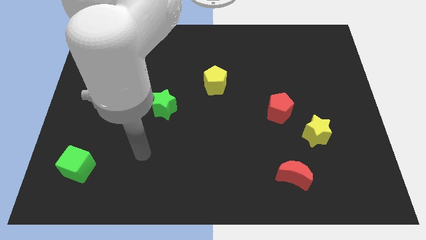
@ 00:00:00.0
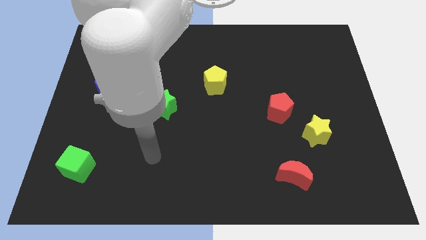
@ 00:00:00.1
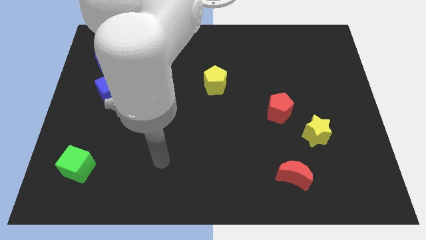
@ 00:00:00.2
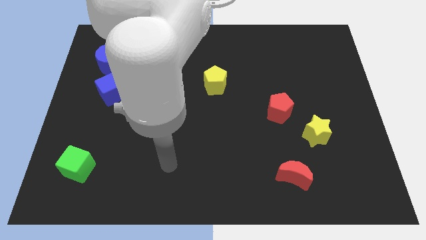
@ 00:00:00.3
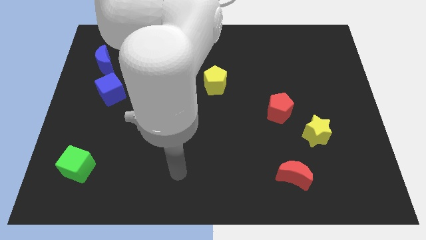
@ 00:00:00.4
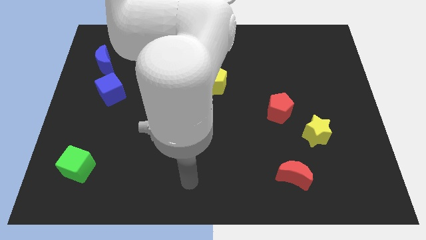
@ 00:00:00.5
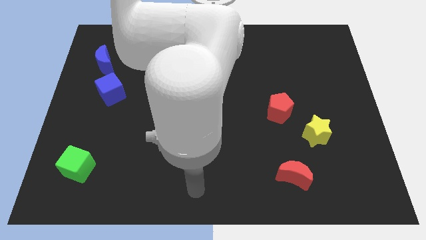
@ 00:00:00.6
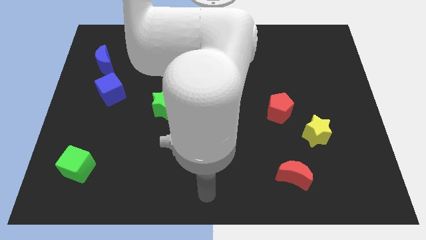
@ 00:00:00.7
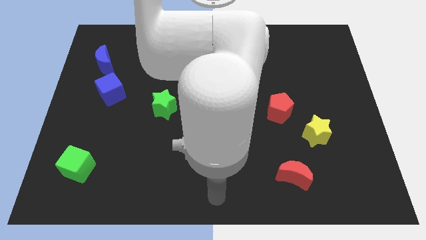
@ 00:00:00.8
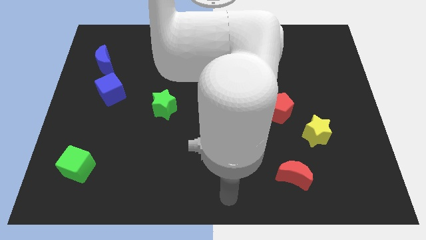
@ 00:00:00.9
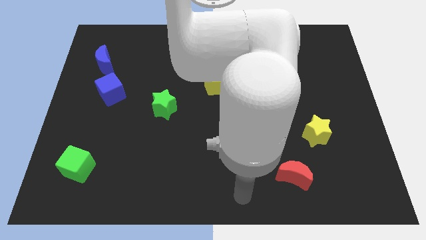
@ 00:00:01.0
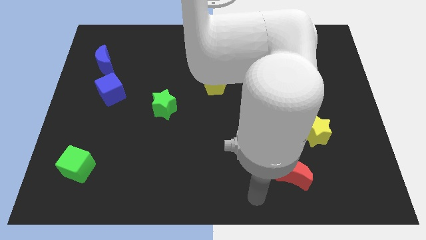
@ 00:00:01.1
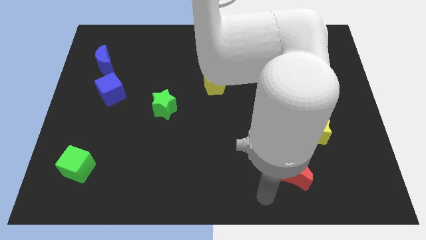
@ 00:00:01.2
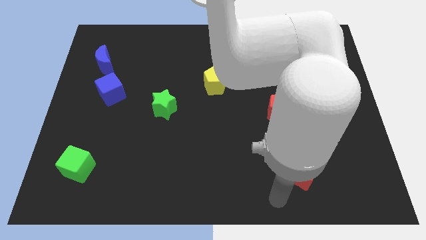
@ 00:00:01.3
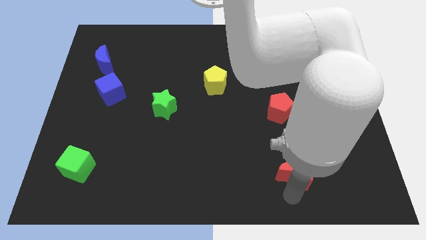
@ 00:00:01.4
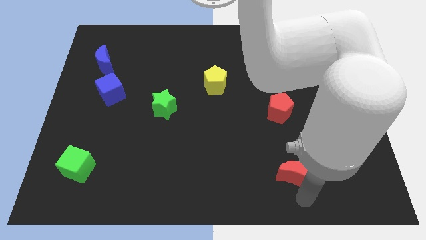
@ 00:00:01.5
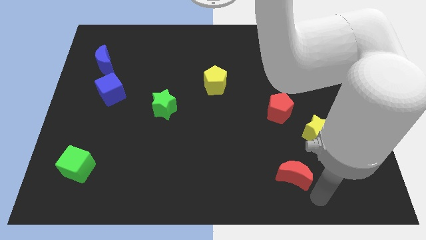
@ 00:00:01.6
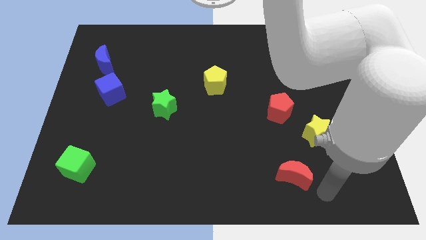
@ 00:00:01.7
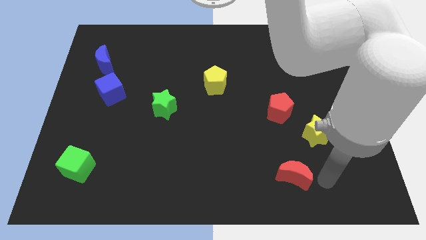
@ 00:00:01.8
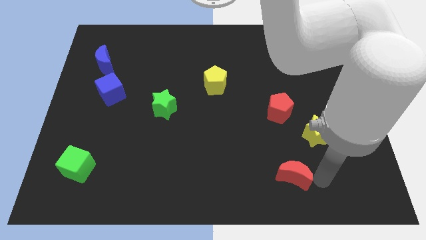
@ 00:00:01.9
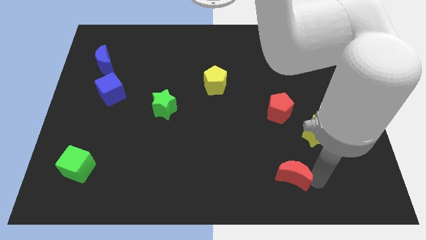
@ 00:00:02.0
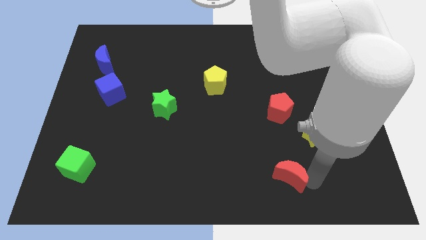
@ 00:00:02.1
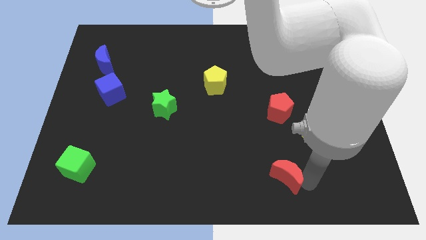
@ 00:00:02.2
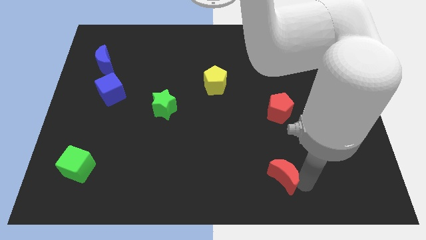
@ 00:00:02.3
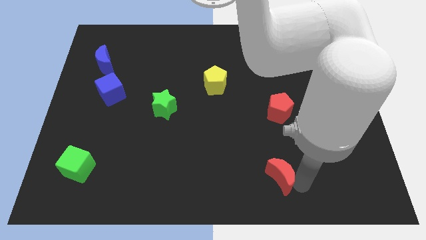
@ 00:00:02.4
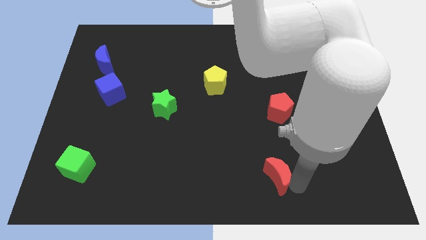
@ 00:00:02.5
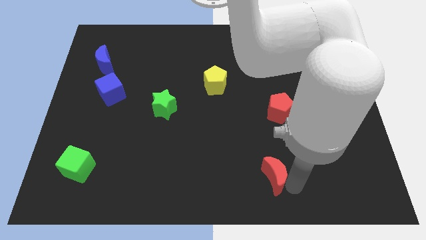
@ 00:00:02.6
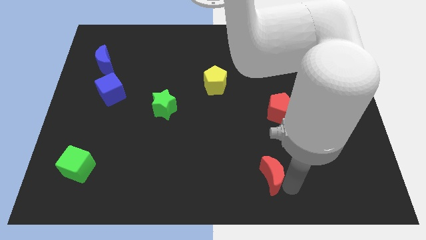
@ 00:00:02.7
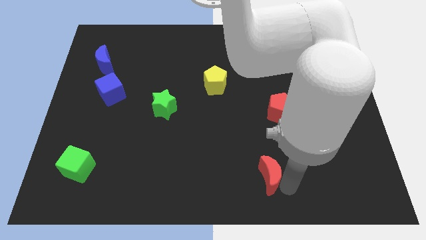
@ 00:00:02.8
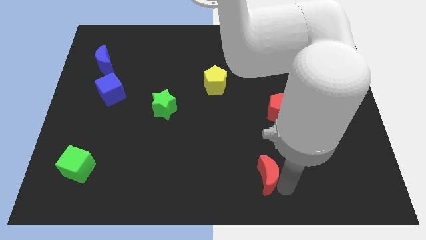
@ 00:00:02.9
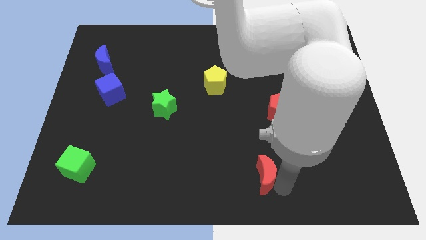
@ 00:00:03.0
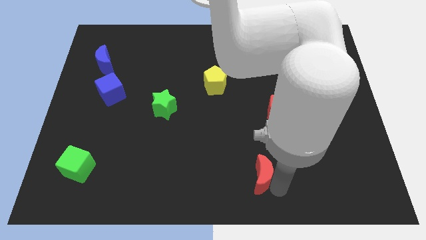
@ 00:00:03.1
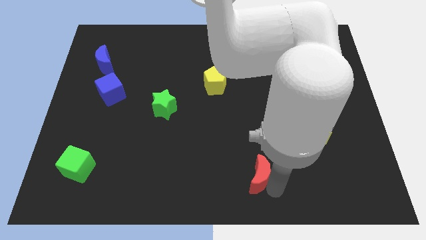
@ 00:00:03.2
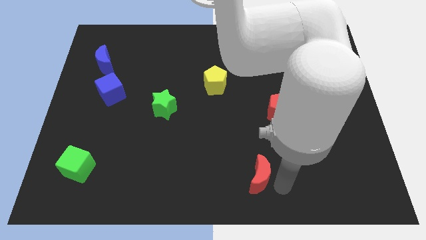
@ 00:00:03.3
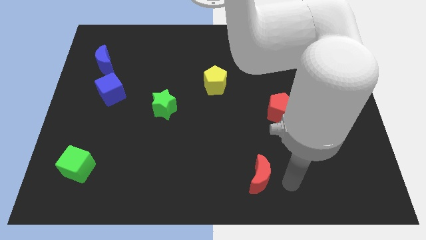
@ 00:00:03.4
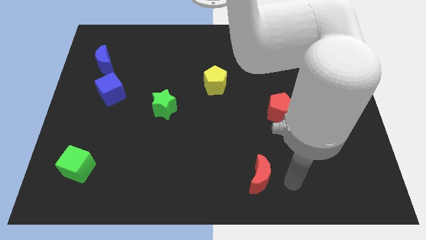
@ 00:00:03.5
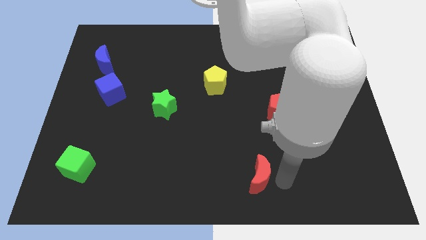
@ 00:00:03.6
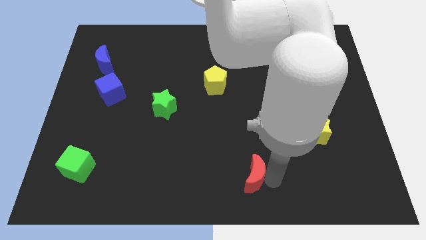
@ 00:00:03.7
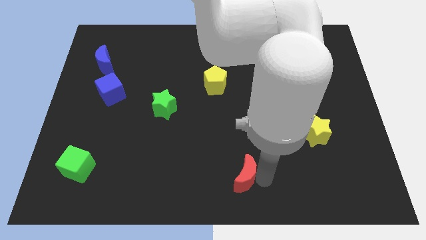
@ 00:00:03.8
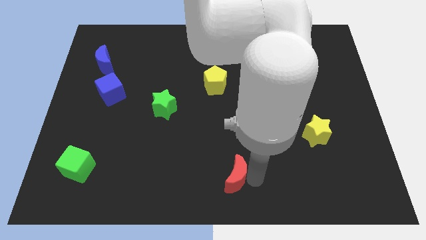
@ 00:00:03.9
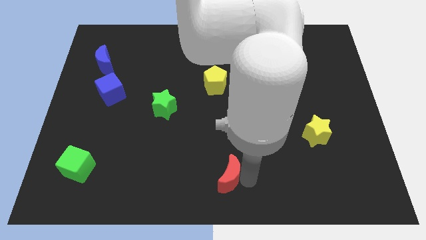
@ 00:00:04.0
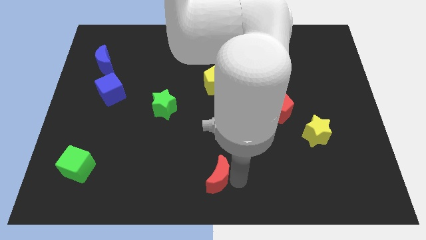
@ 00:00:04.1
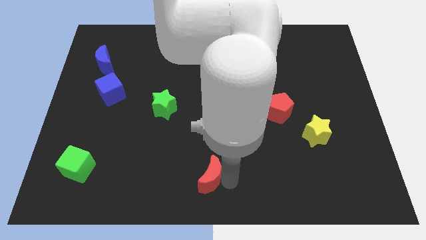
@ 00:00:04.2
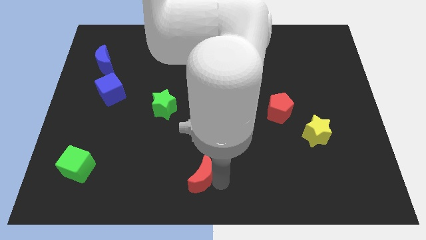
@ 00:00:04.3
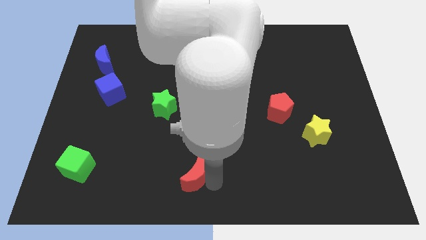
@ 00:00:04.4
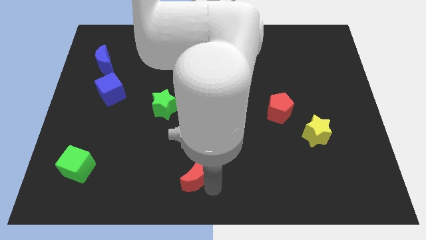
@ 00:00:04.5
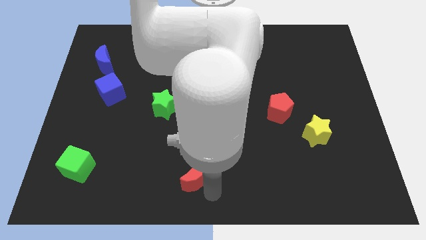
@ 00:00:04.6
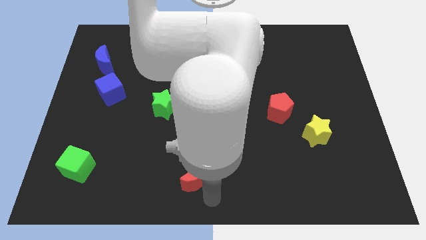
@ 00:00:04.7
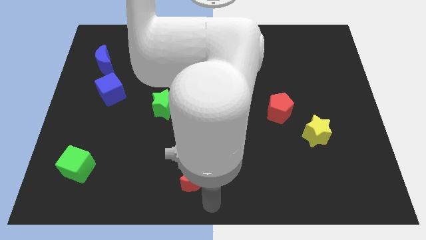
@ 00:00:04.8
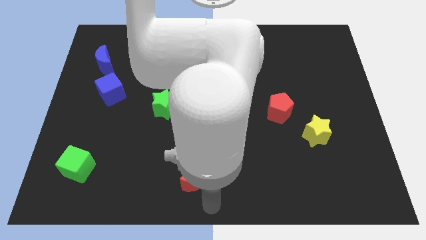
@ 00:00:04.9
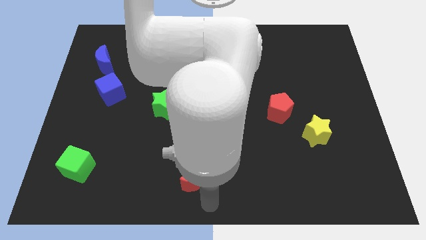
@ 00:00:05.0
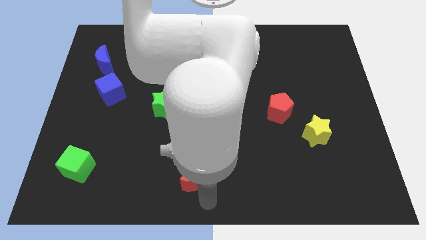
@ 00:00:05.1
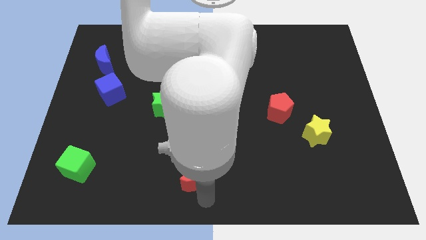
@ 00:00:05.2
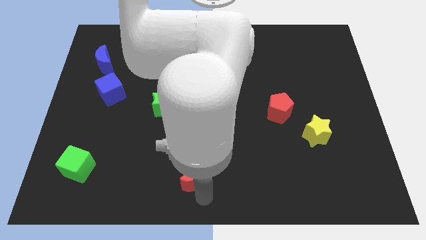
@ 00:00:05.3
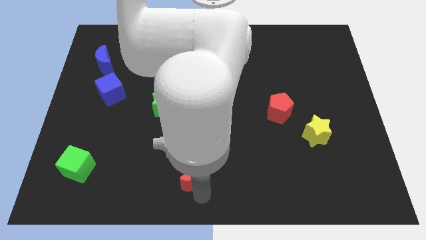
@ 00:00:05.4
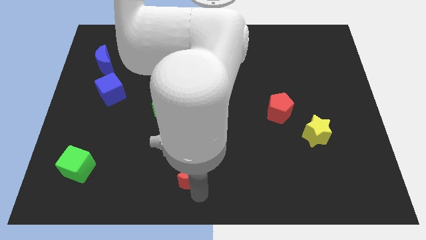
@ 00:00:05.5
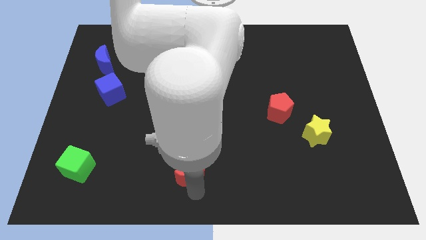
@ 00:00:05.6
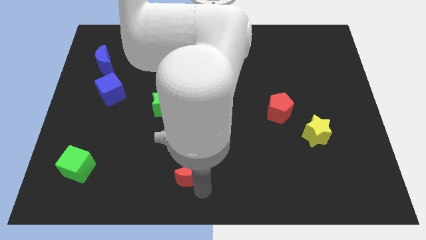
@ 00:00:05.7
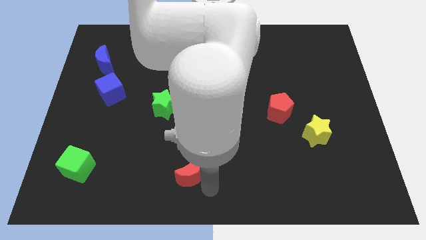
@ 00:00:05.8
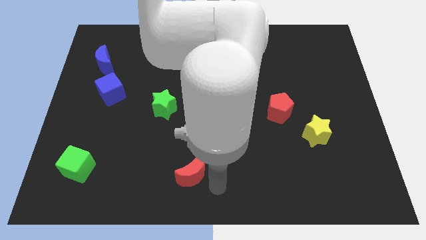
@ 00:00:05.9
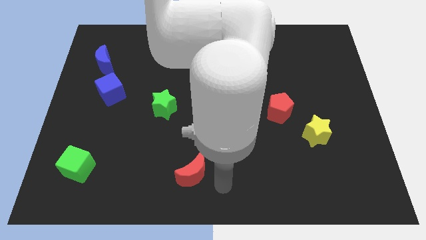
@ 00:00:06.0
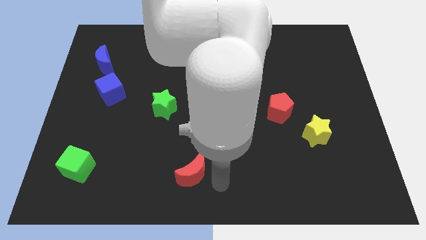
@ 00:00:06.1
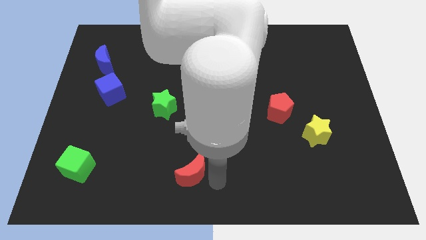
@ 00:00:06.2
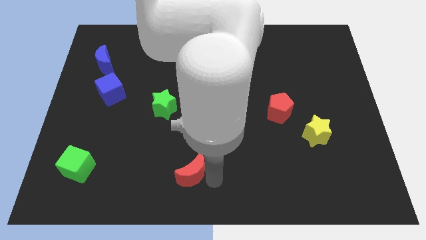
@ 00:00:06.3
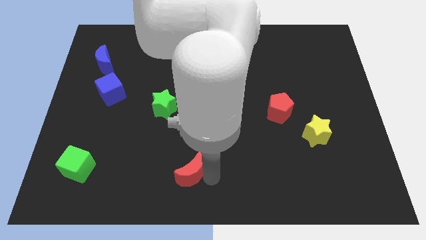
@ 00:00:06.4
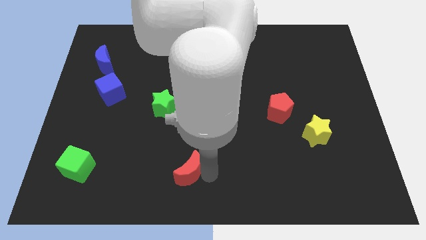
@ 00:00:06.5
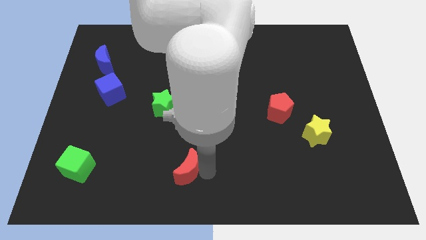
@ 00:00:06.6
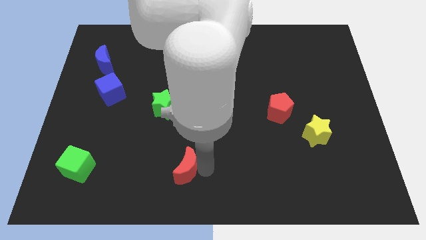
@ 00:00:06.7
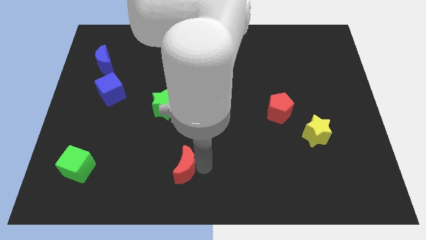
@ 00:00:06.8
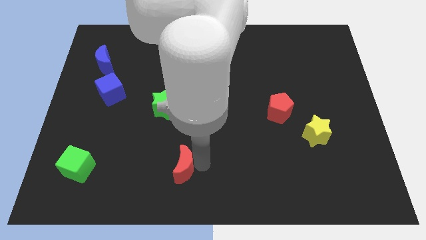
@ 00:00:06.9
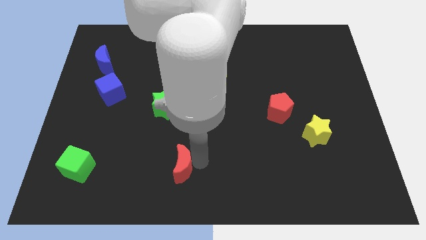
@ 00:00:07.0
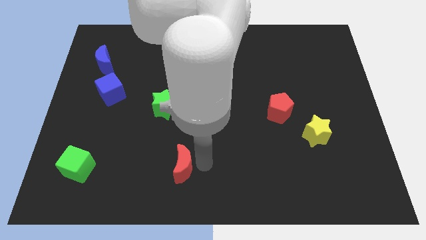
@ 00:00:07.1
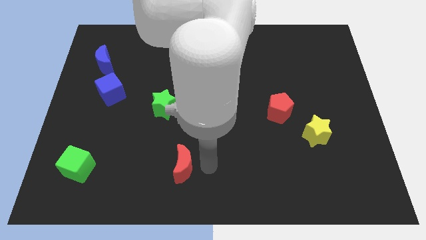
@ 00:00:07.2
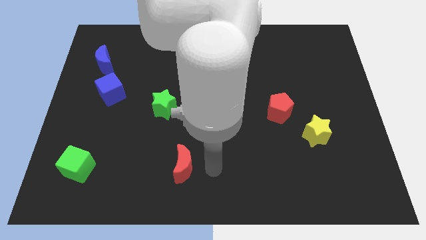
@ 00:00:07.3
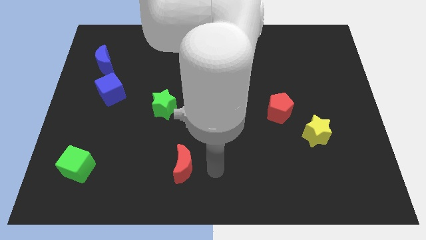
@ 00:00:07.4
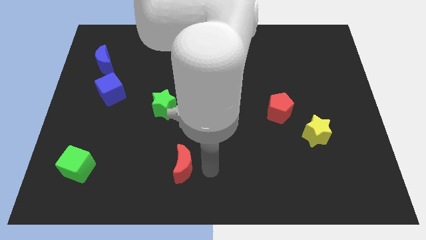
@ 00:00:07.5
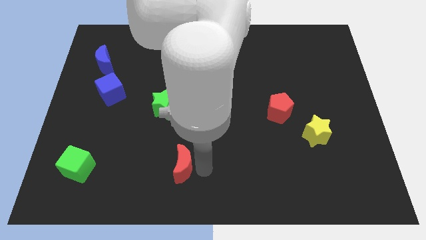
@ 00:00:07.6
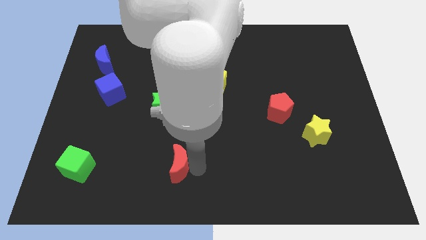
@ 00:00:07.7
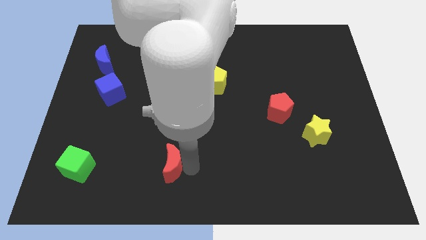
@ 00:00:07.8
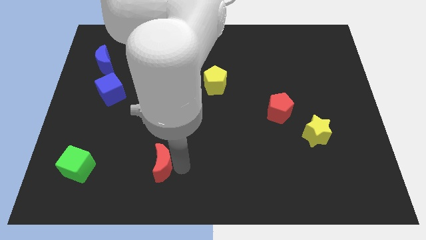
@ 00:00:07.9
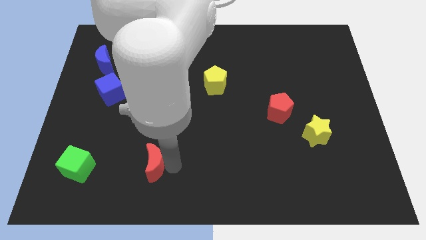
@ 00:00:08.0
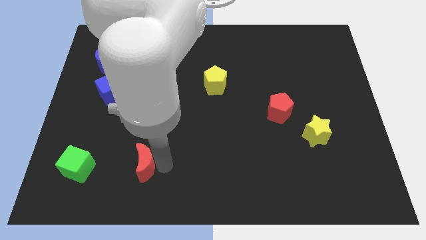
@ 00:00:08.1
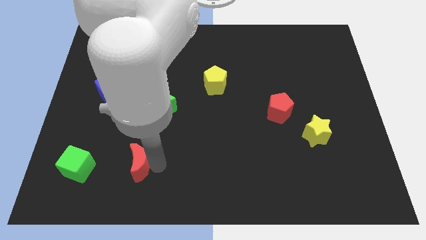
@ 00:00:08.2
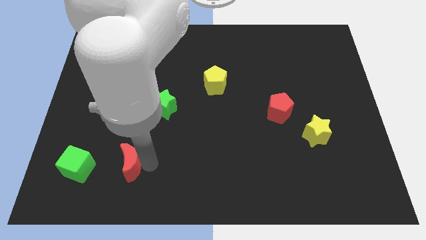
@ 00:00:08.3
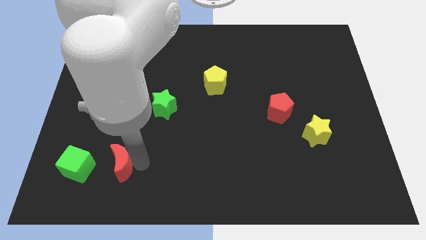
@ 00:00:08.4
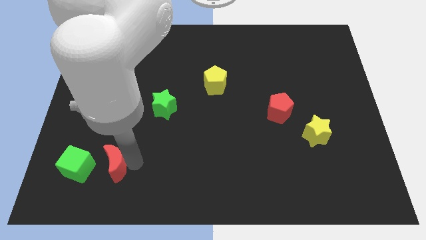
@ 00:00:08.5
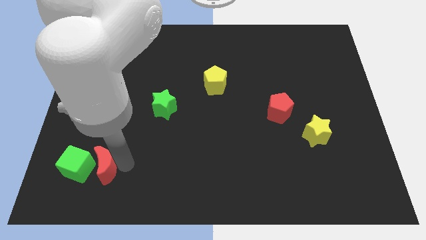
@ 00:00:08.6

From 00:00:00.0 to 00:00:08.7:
push the red moon close to the green cube
